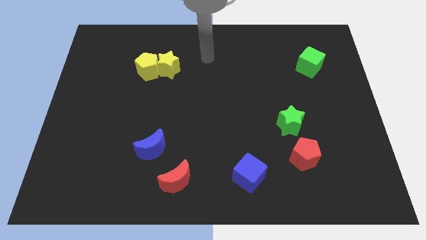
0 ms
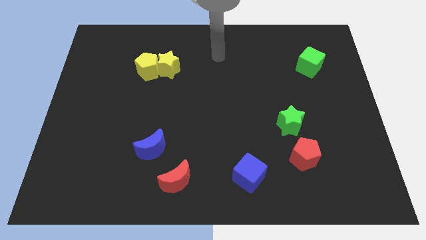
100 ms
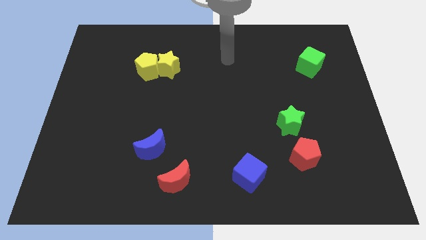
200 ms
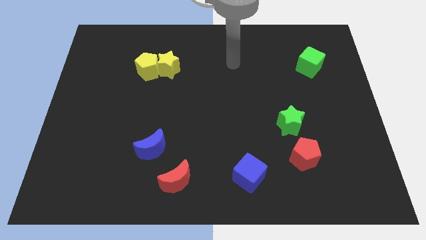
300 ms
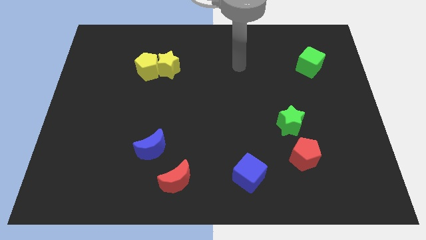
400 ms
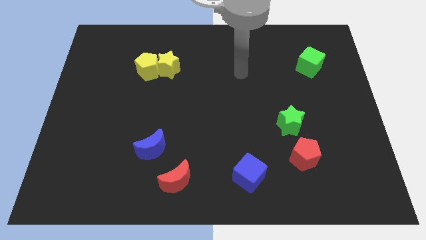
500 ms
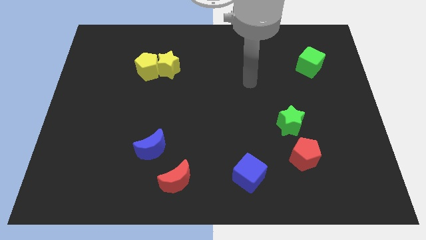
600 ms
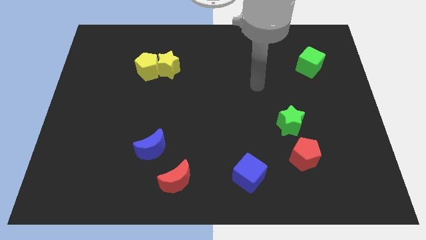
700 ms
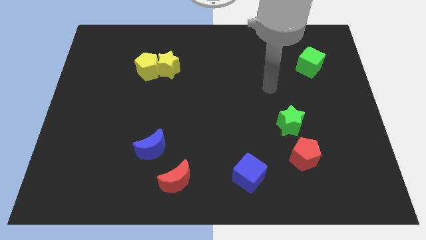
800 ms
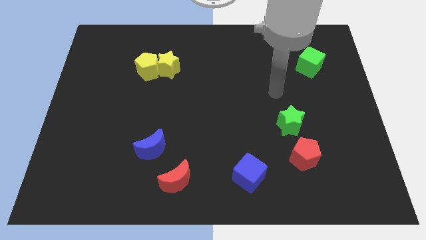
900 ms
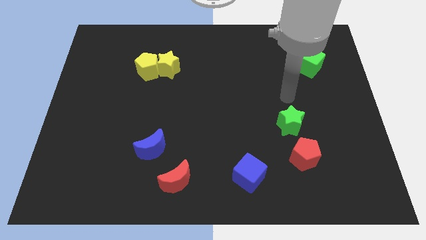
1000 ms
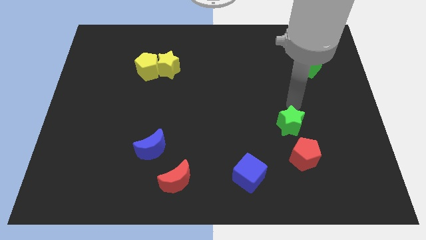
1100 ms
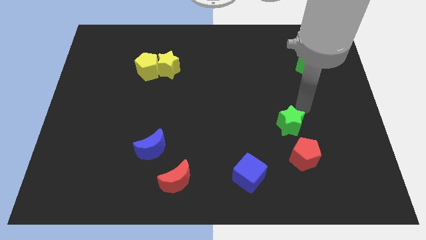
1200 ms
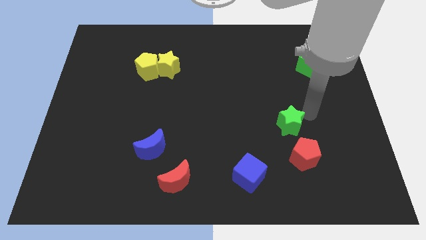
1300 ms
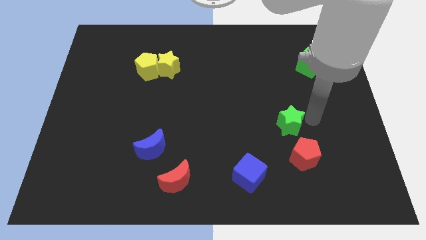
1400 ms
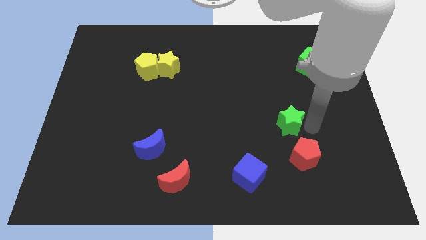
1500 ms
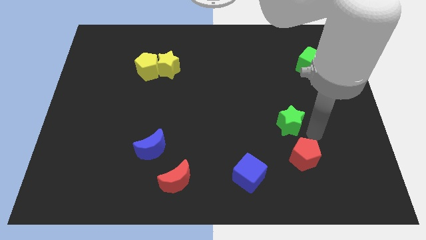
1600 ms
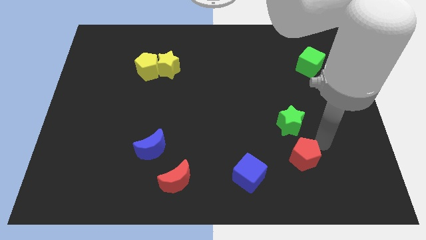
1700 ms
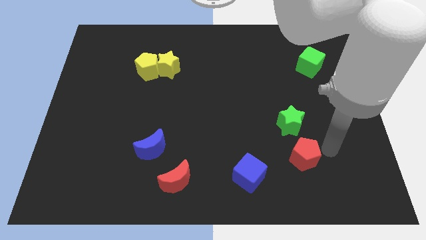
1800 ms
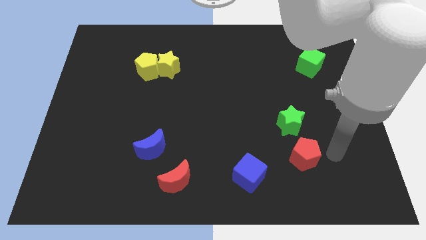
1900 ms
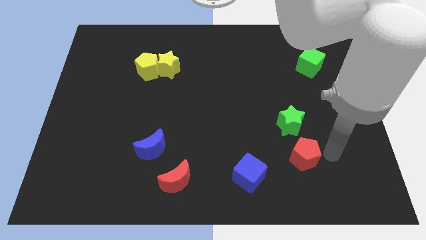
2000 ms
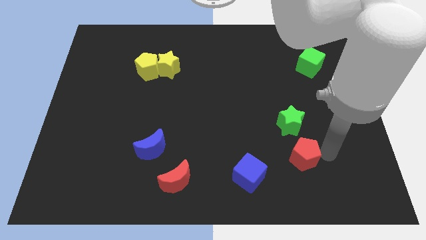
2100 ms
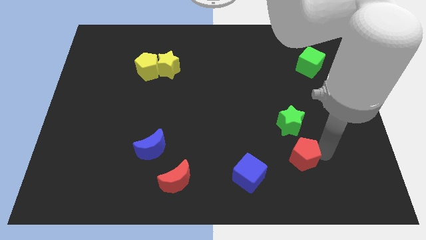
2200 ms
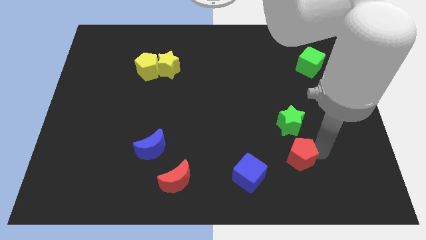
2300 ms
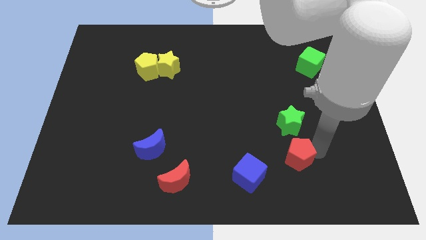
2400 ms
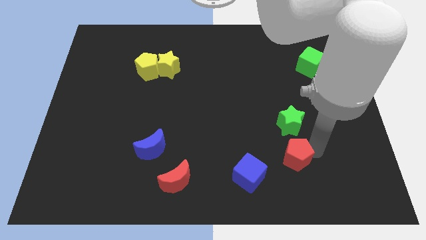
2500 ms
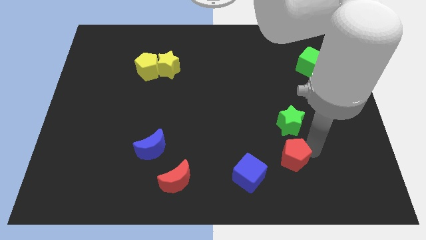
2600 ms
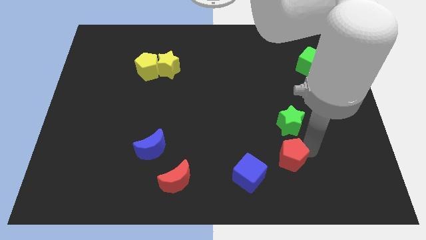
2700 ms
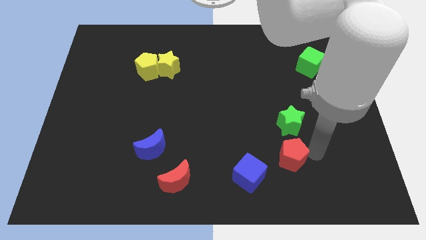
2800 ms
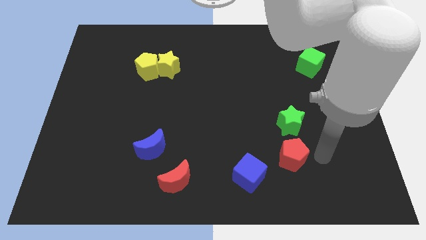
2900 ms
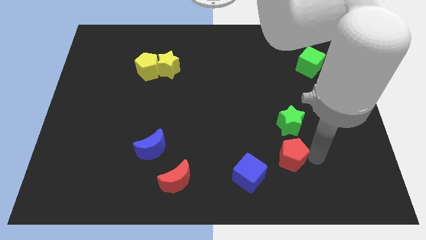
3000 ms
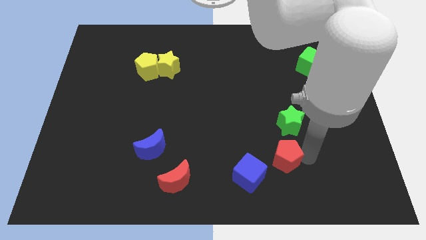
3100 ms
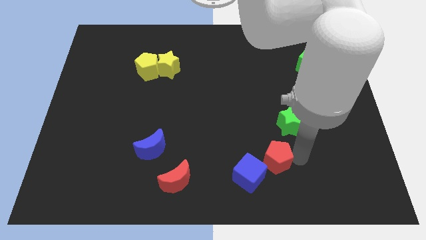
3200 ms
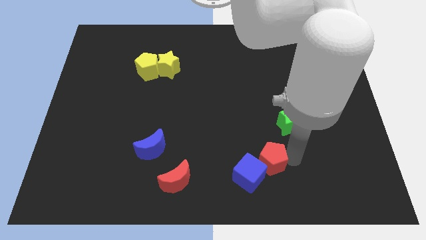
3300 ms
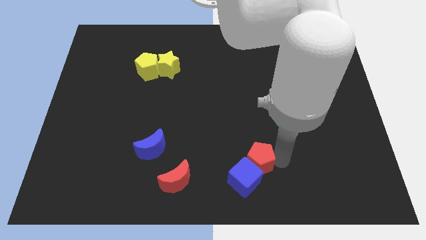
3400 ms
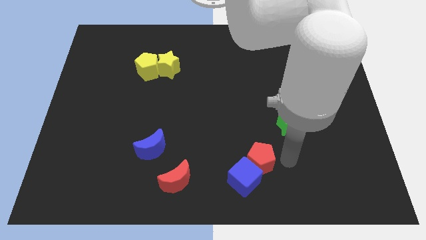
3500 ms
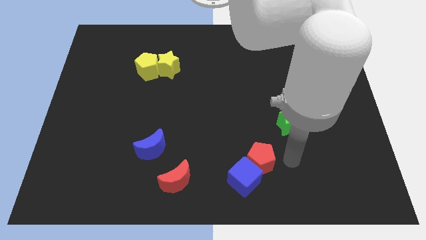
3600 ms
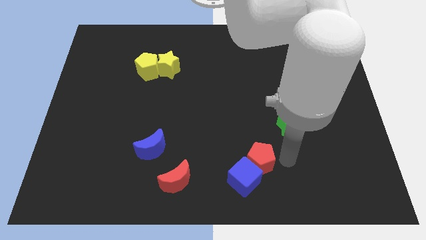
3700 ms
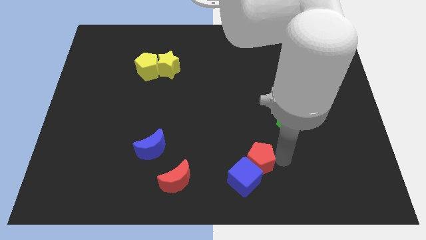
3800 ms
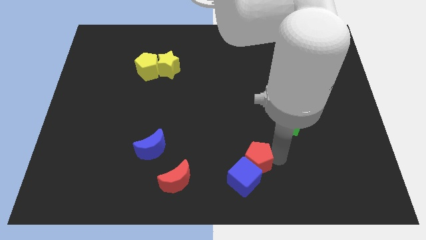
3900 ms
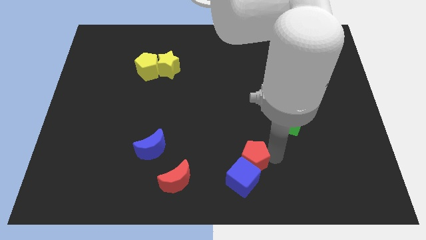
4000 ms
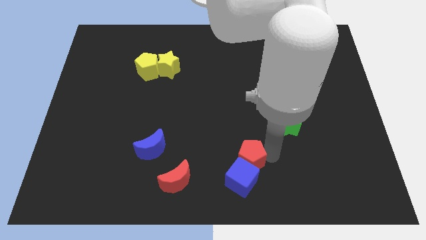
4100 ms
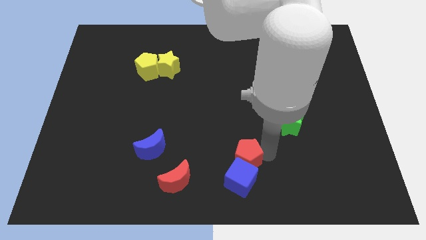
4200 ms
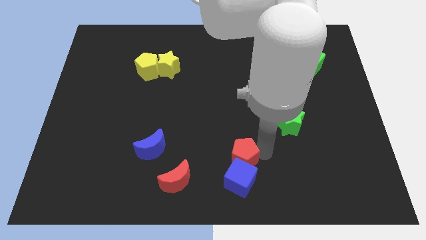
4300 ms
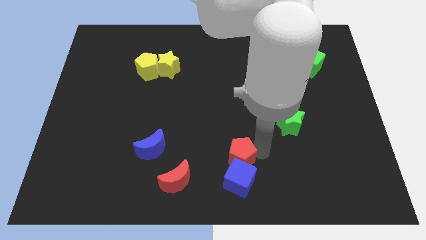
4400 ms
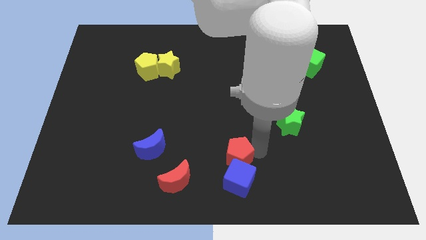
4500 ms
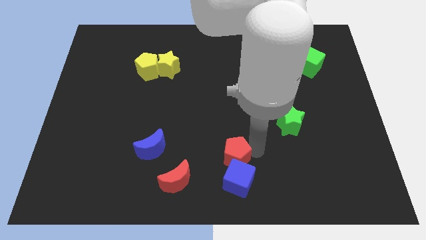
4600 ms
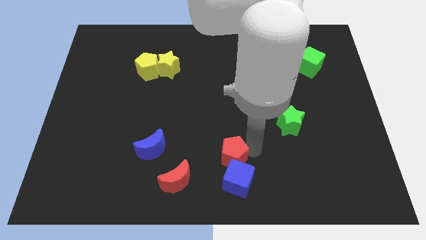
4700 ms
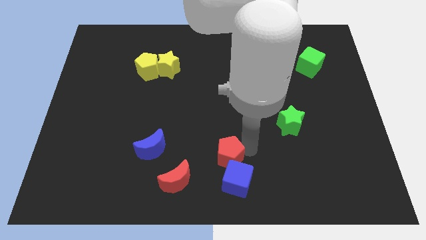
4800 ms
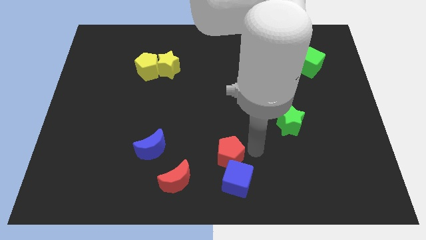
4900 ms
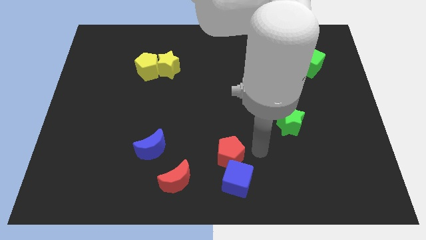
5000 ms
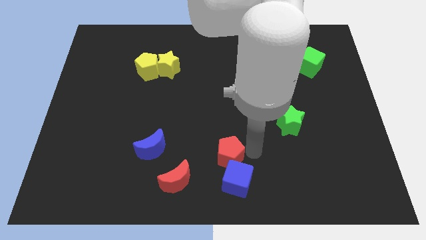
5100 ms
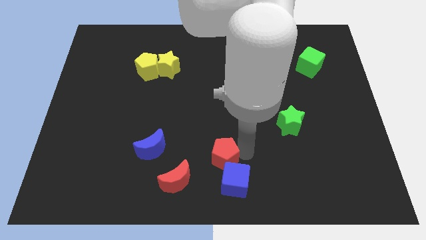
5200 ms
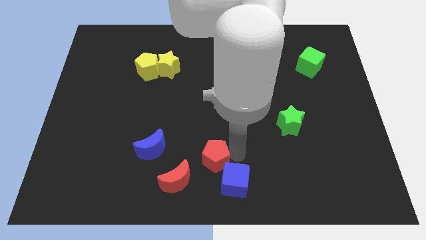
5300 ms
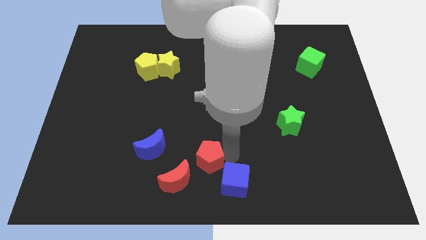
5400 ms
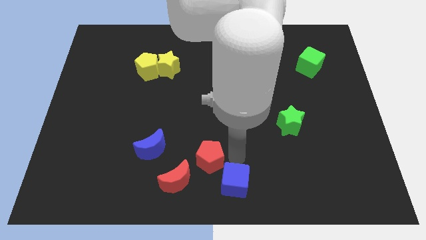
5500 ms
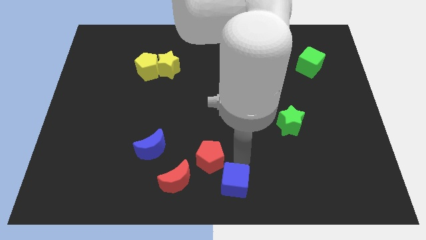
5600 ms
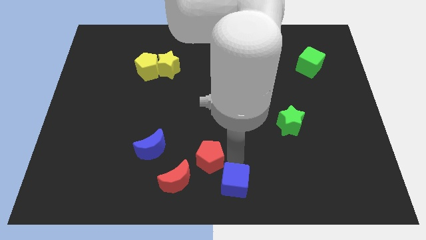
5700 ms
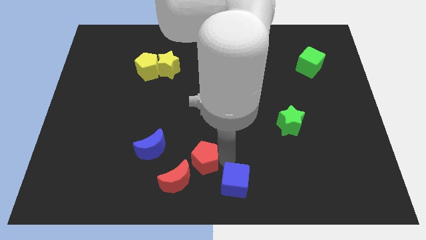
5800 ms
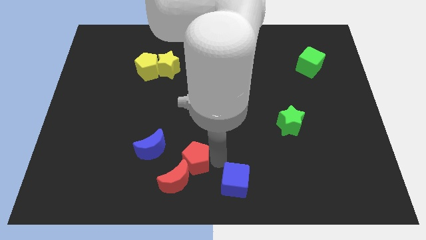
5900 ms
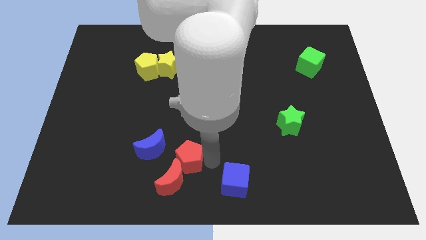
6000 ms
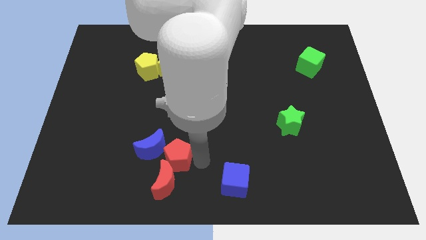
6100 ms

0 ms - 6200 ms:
slide the red pentagon towards the blue moon

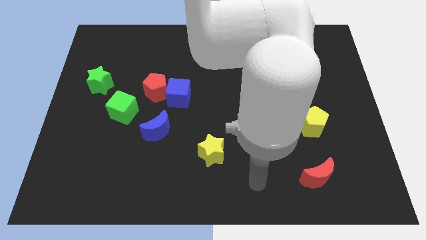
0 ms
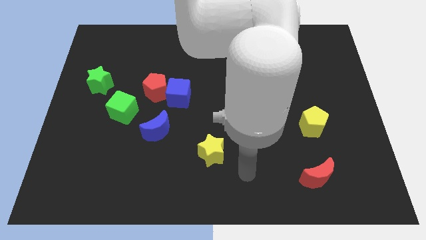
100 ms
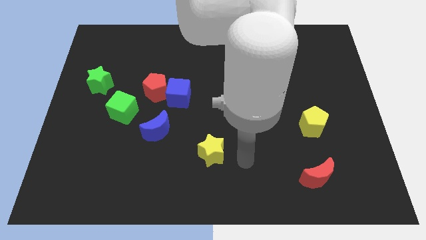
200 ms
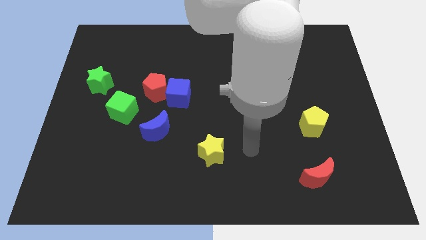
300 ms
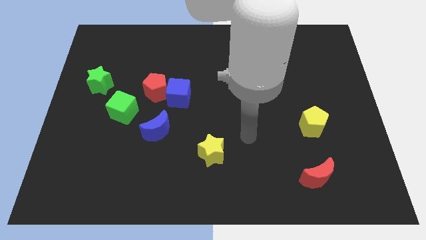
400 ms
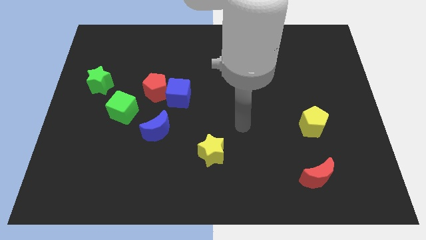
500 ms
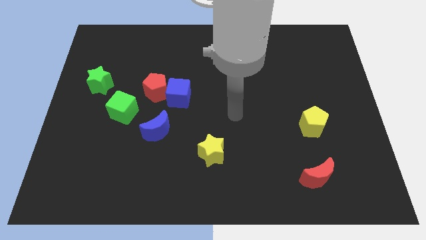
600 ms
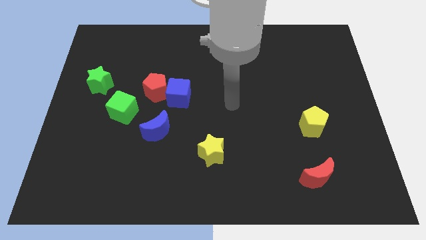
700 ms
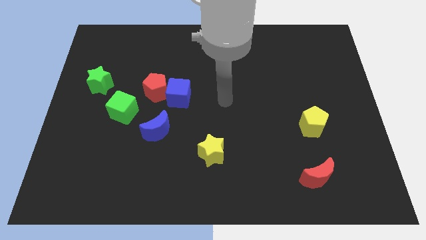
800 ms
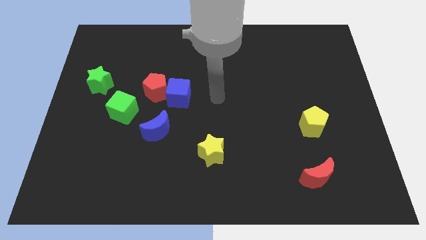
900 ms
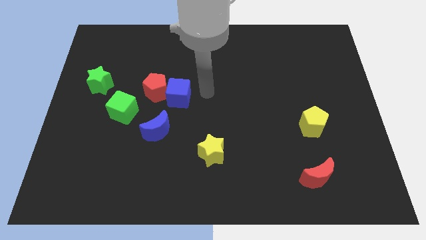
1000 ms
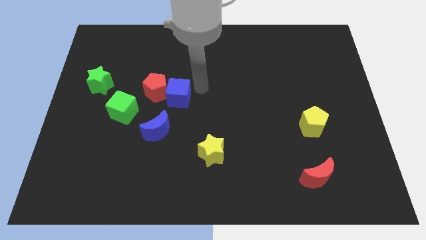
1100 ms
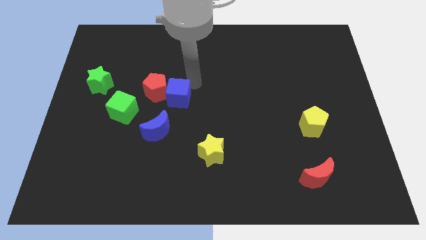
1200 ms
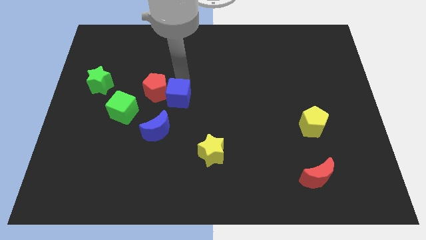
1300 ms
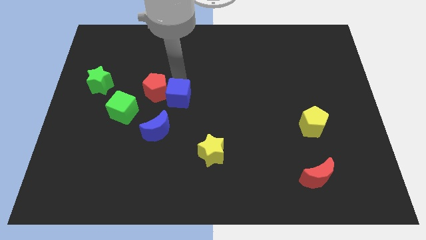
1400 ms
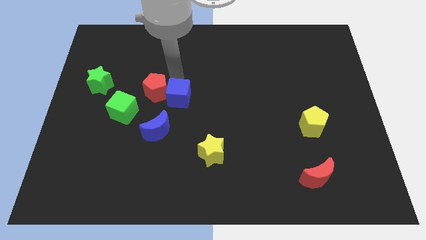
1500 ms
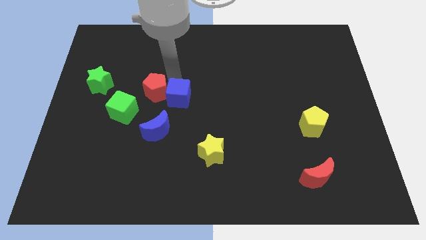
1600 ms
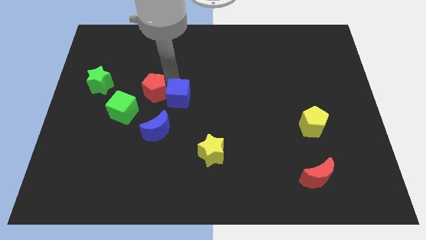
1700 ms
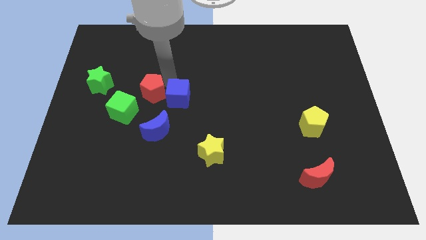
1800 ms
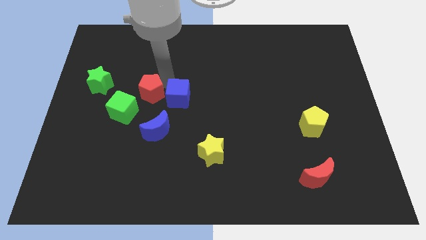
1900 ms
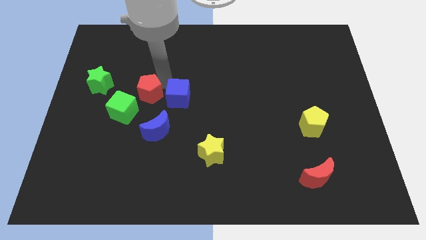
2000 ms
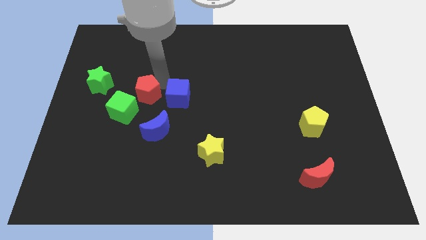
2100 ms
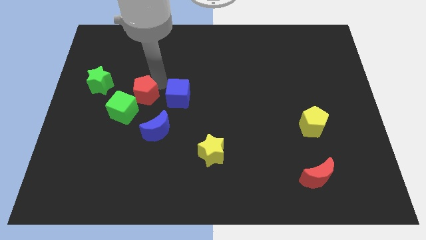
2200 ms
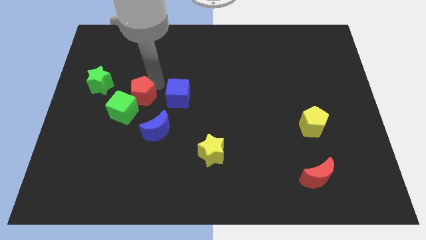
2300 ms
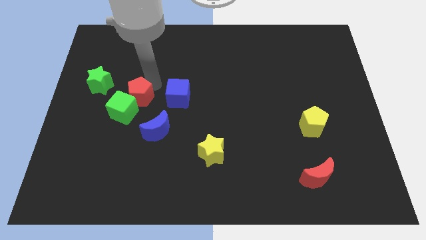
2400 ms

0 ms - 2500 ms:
slide the red pentagon towards the green cube
